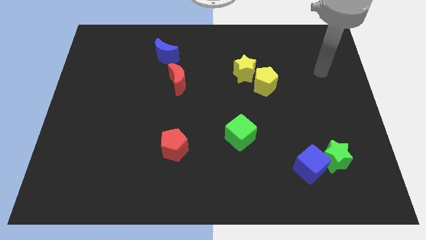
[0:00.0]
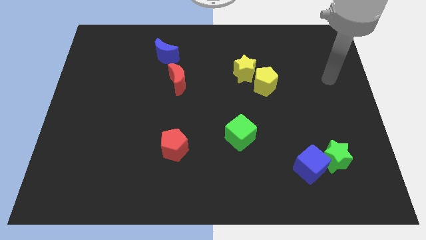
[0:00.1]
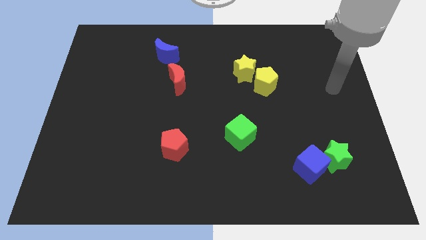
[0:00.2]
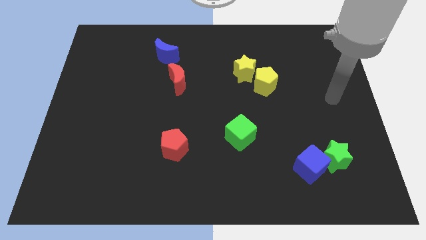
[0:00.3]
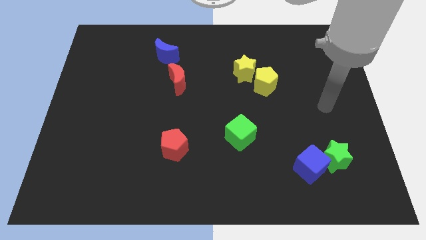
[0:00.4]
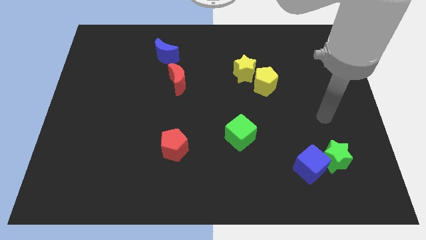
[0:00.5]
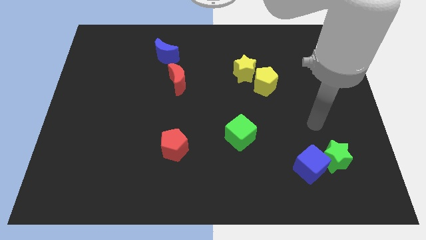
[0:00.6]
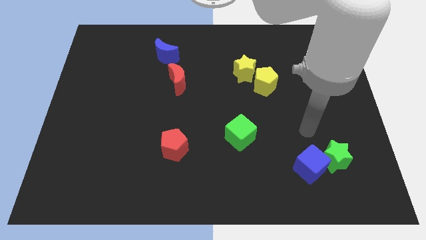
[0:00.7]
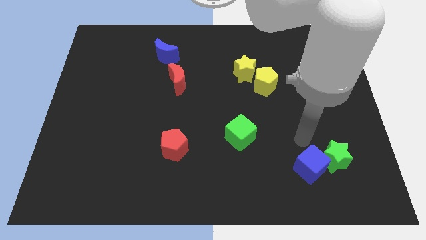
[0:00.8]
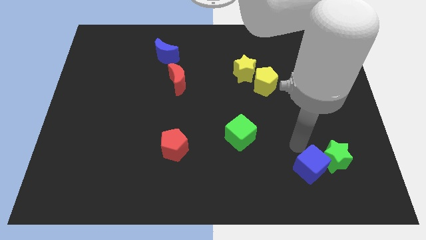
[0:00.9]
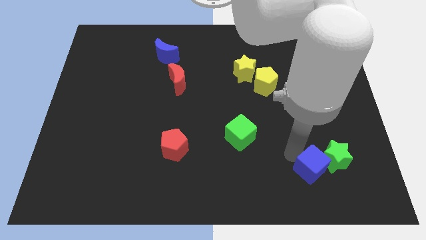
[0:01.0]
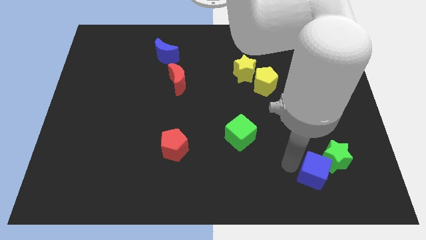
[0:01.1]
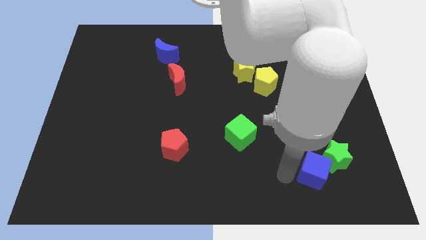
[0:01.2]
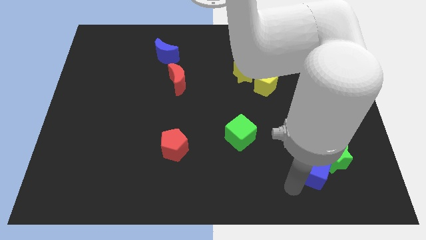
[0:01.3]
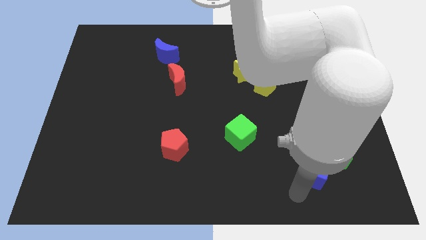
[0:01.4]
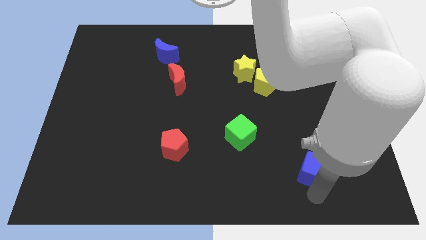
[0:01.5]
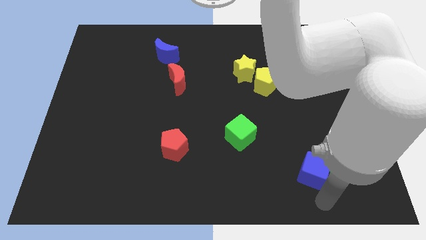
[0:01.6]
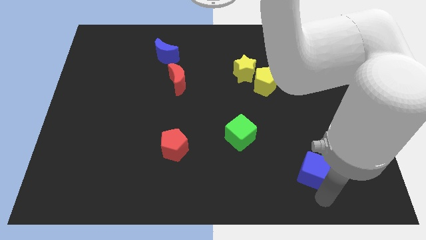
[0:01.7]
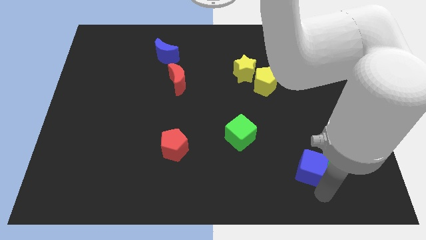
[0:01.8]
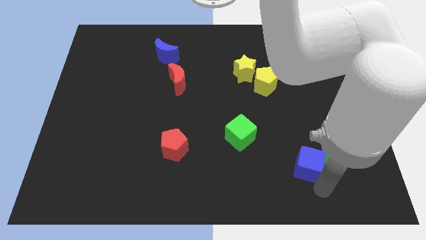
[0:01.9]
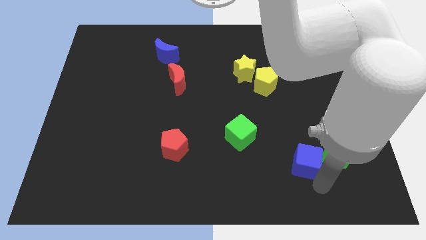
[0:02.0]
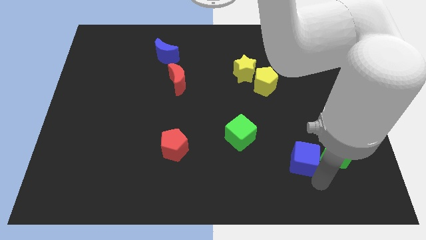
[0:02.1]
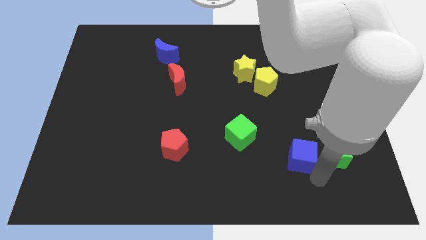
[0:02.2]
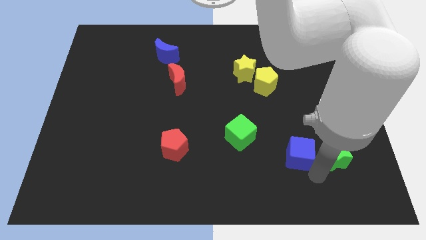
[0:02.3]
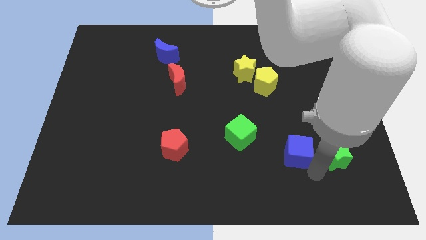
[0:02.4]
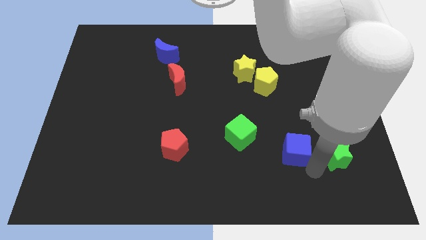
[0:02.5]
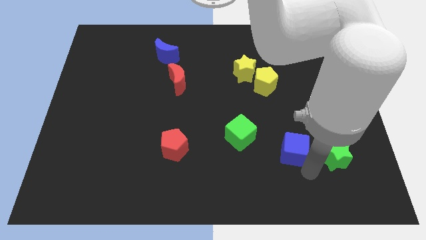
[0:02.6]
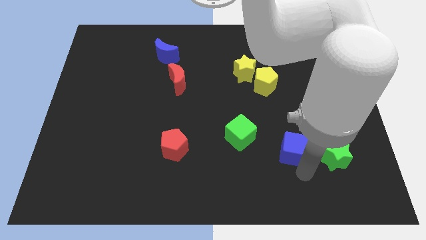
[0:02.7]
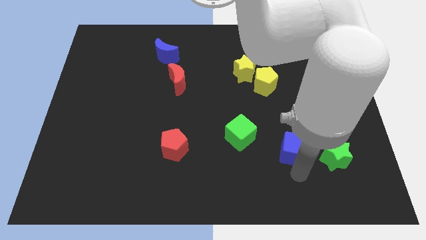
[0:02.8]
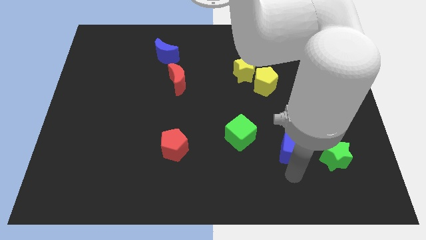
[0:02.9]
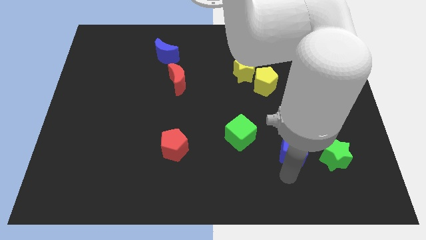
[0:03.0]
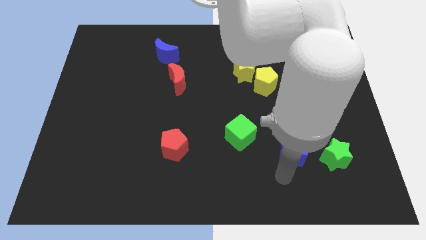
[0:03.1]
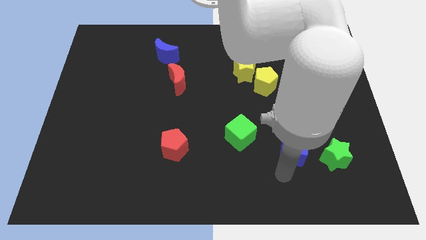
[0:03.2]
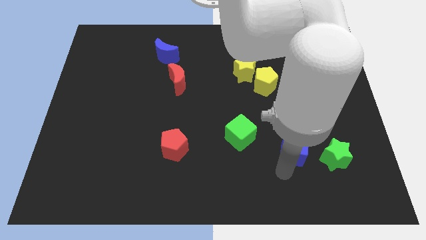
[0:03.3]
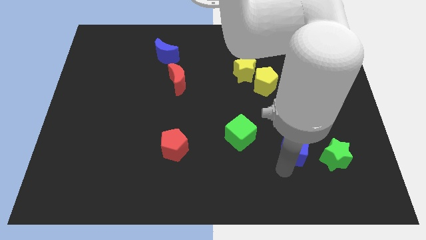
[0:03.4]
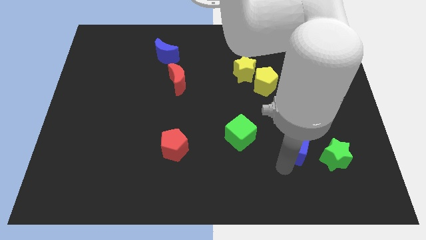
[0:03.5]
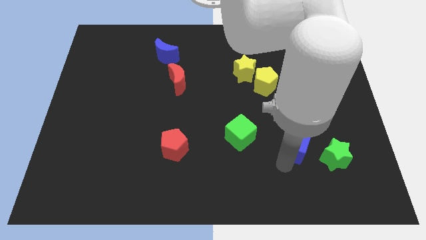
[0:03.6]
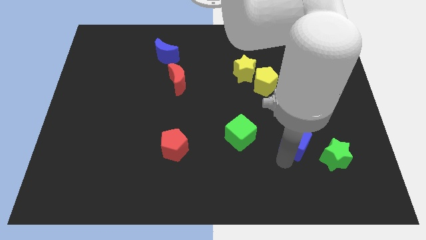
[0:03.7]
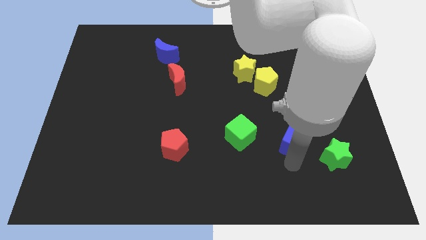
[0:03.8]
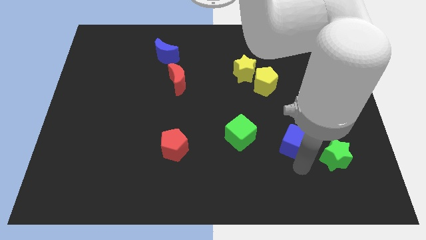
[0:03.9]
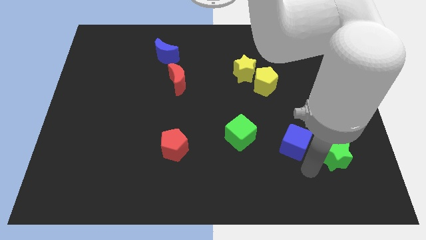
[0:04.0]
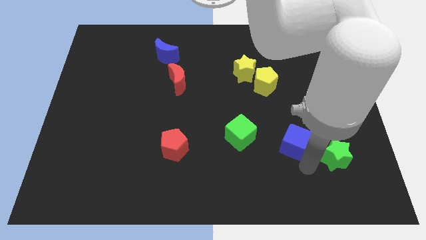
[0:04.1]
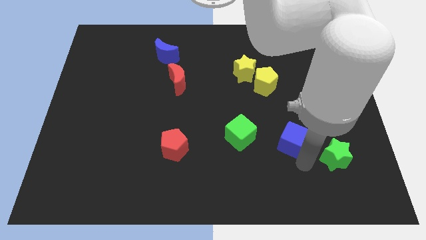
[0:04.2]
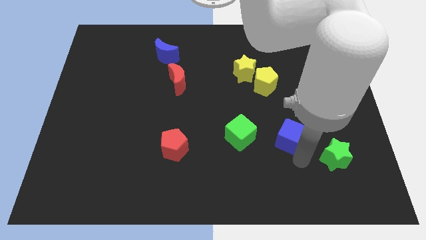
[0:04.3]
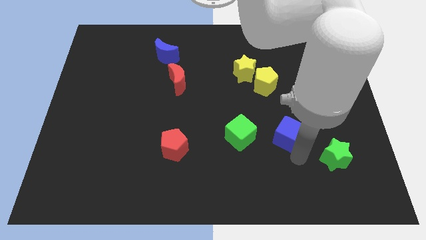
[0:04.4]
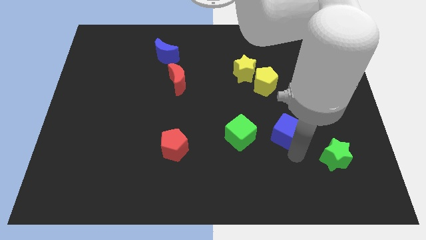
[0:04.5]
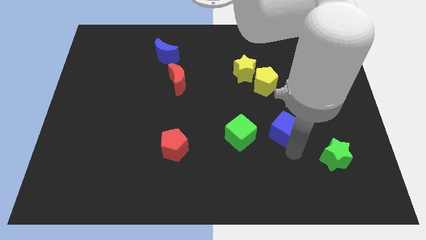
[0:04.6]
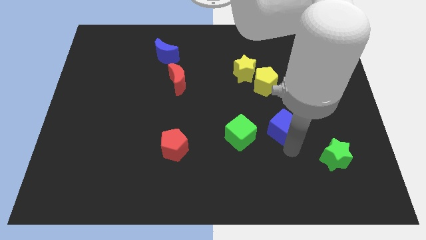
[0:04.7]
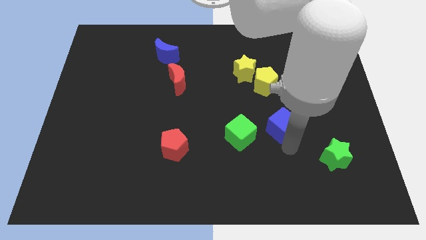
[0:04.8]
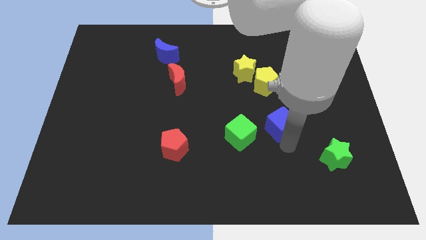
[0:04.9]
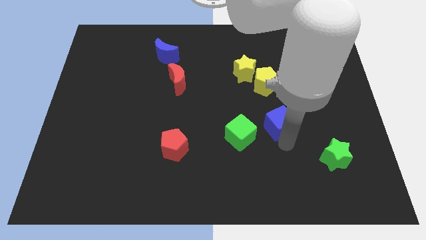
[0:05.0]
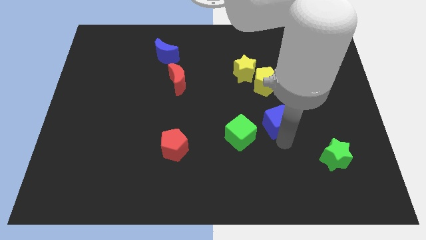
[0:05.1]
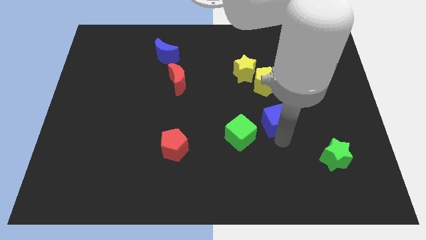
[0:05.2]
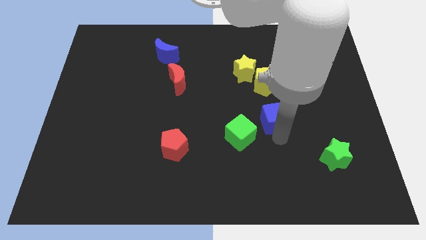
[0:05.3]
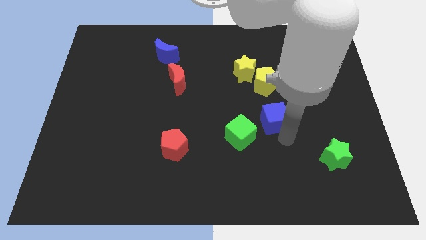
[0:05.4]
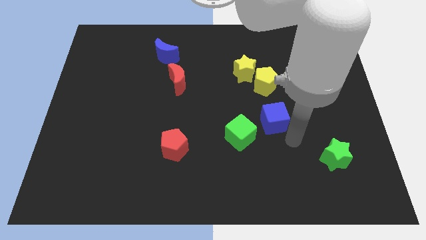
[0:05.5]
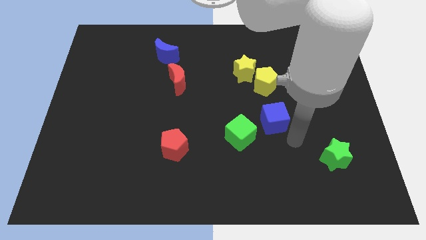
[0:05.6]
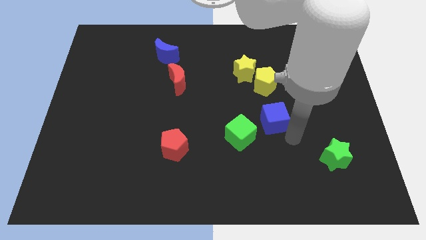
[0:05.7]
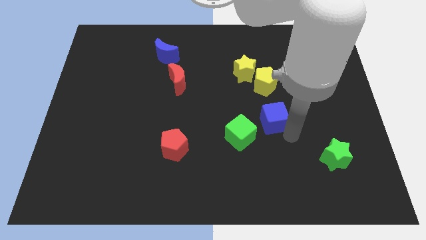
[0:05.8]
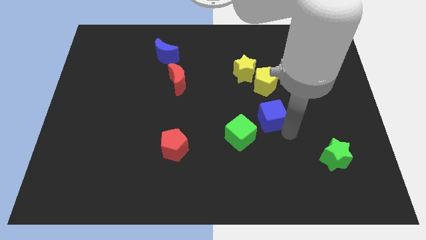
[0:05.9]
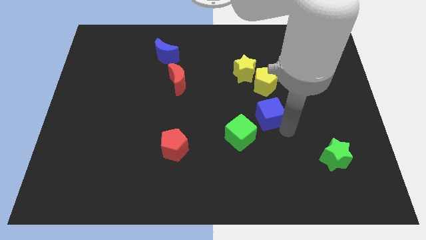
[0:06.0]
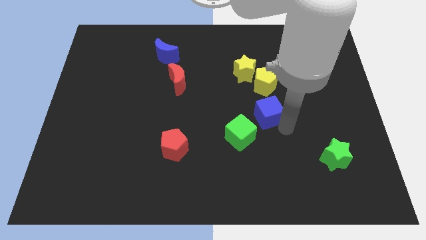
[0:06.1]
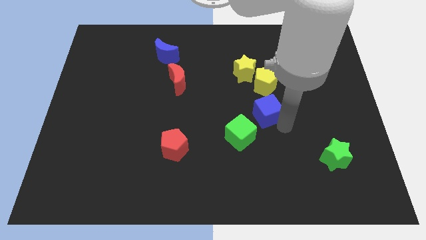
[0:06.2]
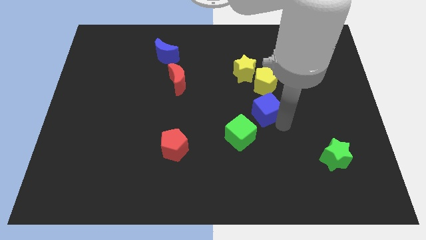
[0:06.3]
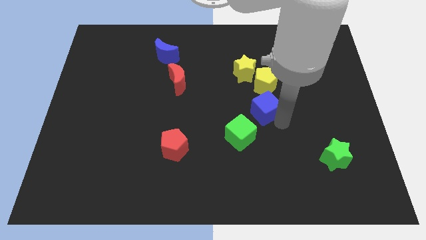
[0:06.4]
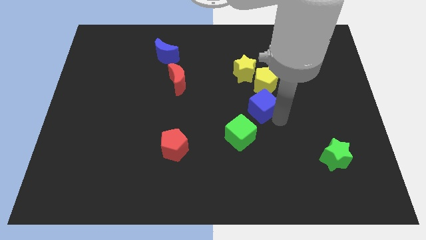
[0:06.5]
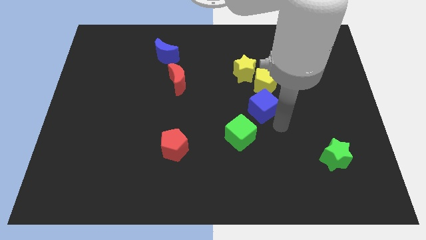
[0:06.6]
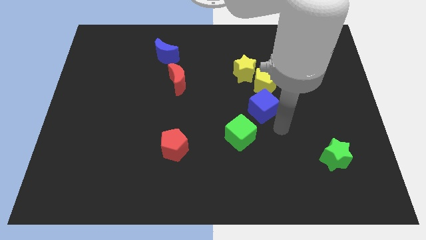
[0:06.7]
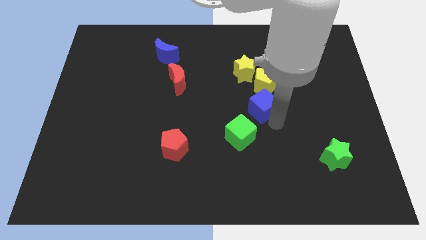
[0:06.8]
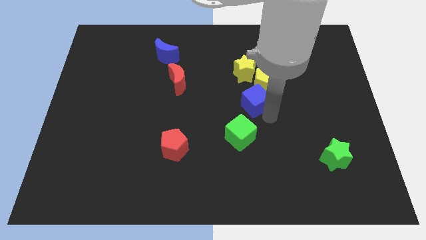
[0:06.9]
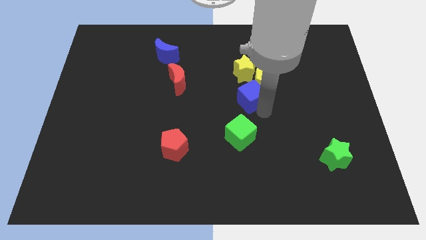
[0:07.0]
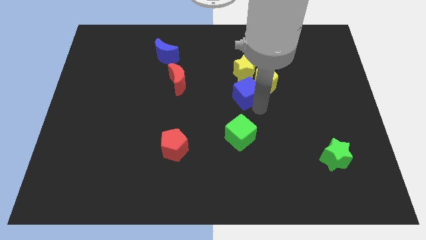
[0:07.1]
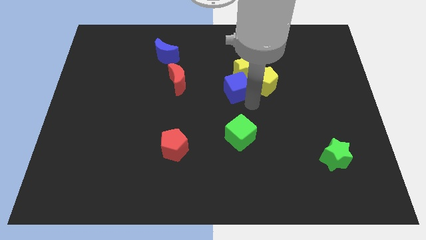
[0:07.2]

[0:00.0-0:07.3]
put the blue cube towards the yellow star
